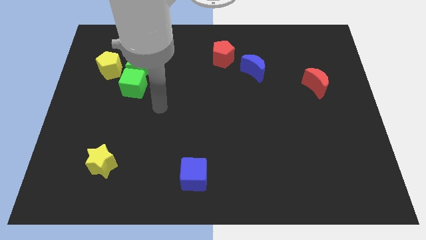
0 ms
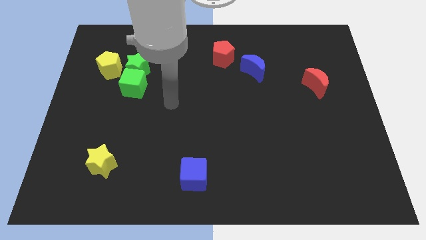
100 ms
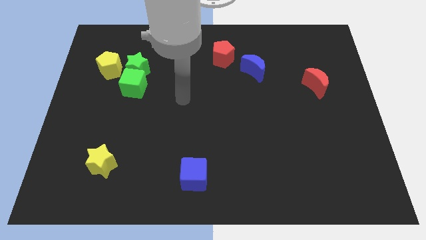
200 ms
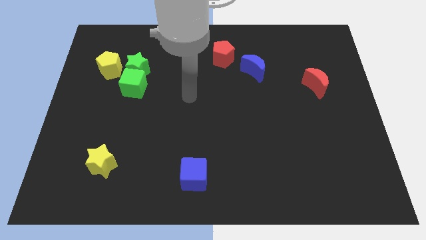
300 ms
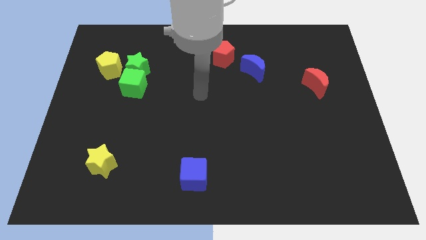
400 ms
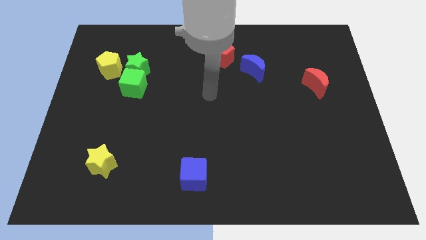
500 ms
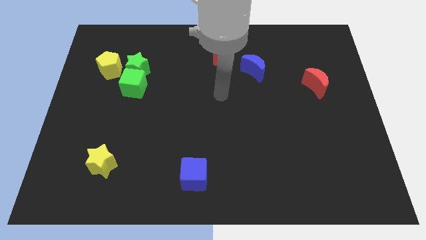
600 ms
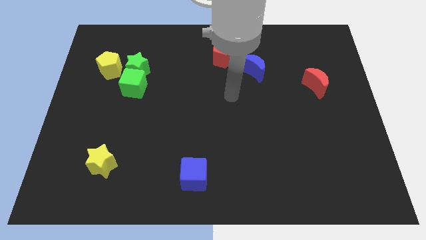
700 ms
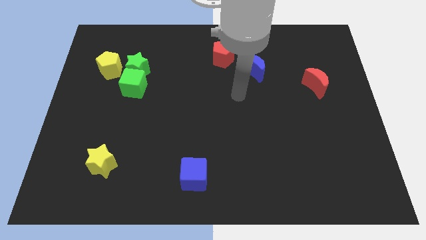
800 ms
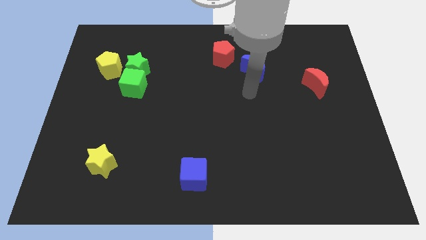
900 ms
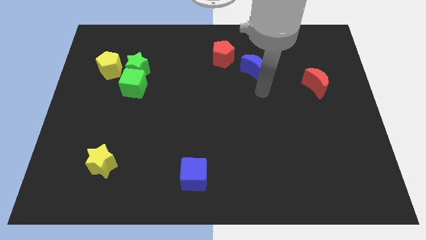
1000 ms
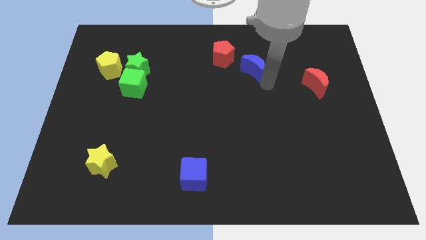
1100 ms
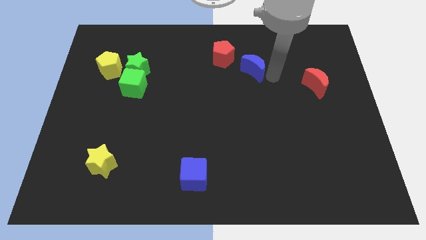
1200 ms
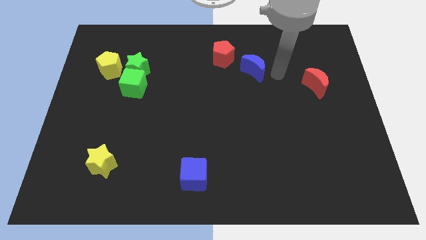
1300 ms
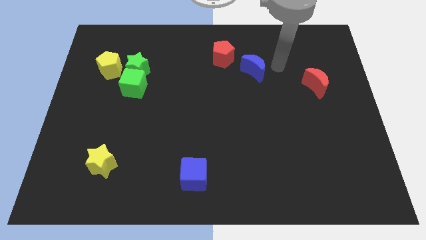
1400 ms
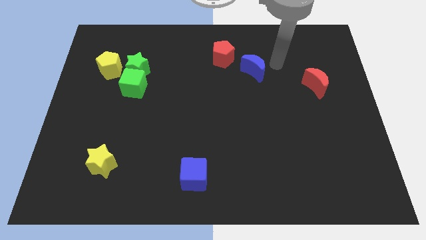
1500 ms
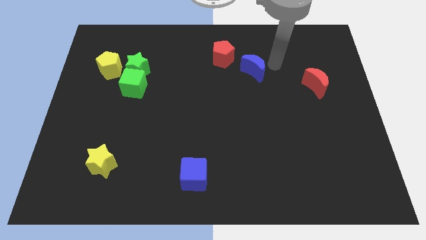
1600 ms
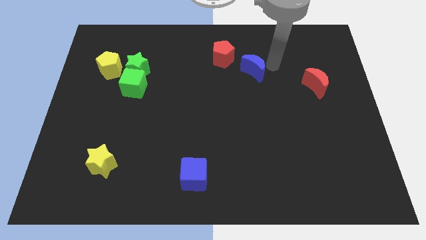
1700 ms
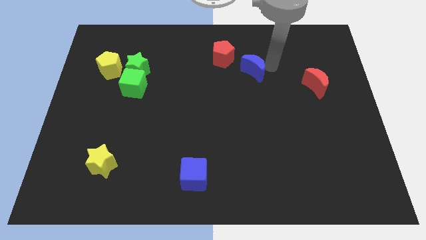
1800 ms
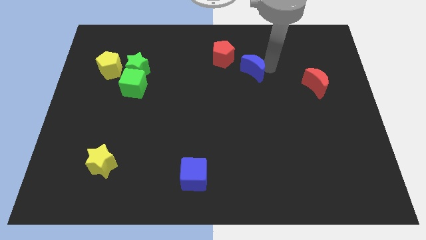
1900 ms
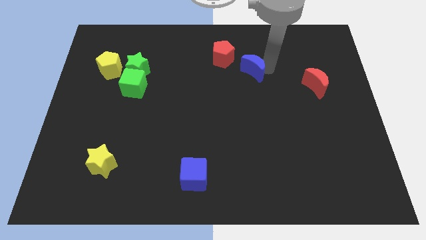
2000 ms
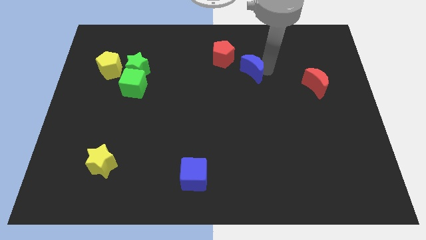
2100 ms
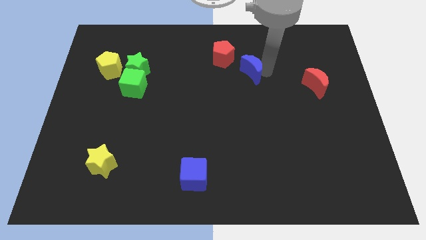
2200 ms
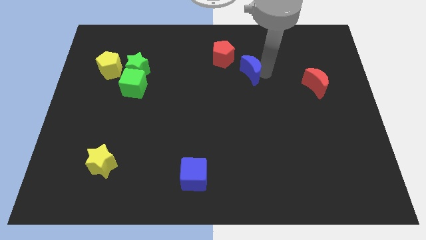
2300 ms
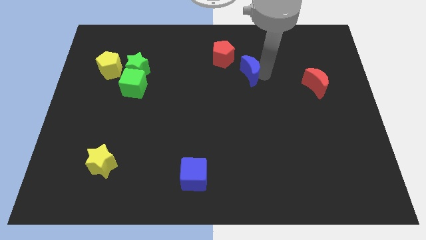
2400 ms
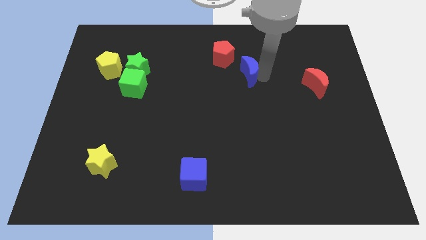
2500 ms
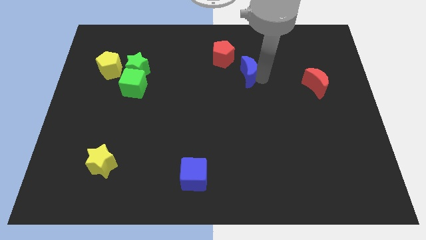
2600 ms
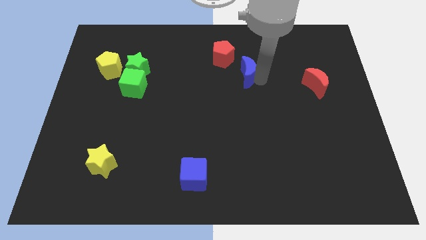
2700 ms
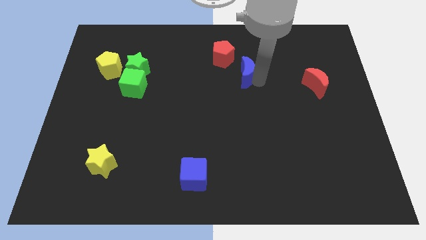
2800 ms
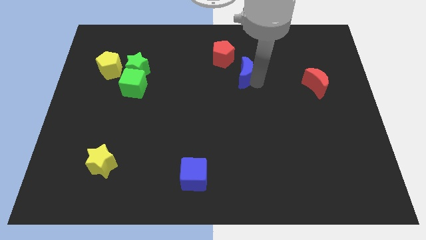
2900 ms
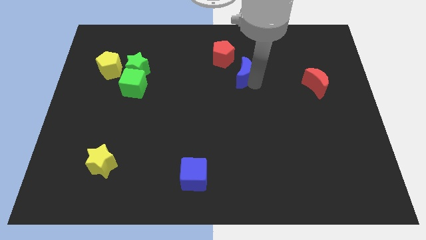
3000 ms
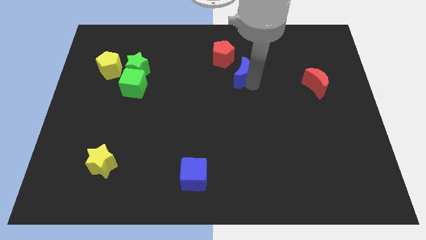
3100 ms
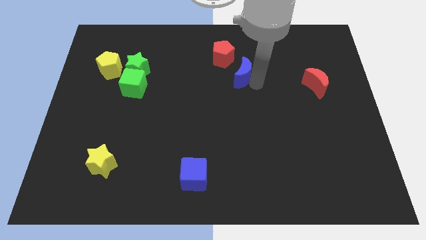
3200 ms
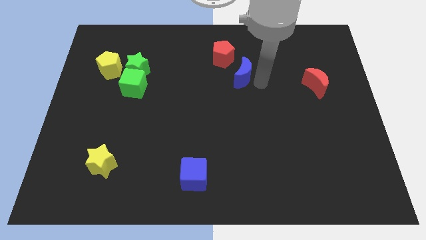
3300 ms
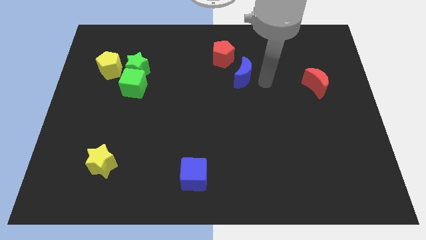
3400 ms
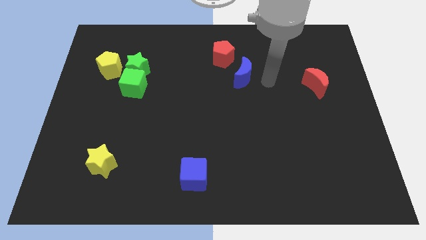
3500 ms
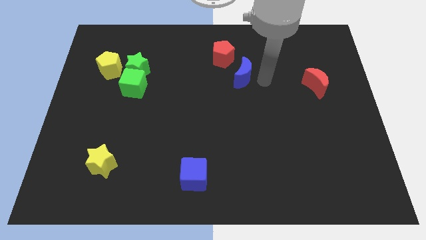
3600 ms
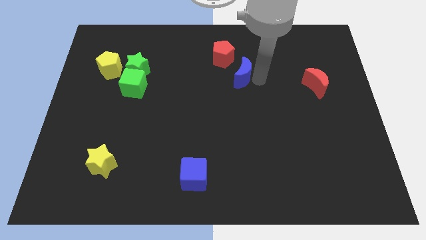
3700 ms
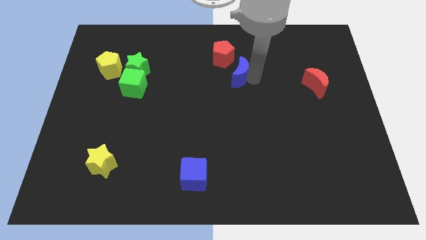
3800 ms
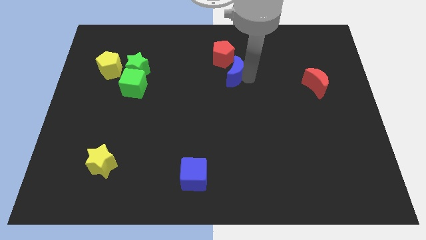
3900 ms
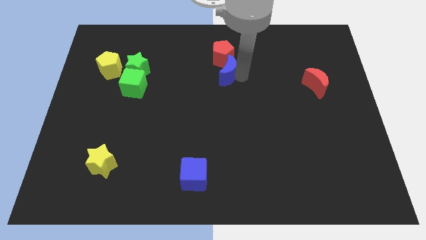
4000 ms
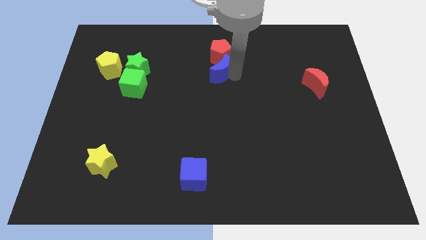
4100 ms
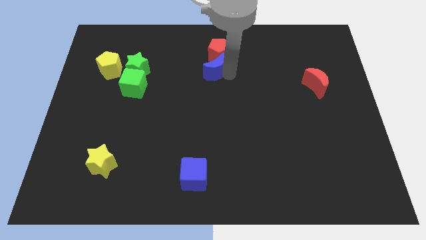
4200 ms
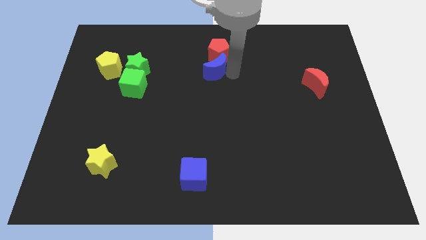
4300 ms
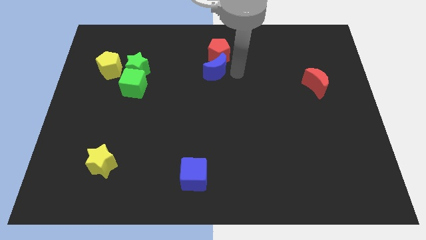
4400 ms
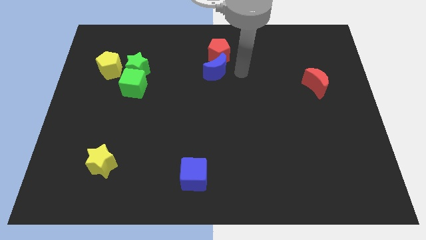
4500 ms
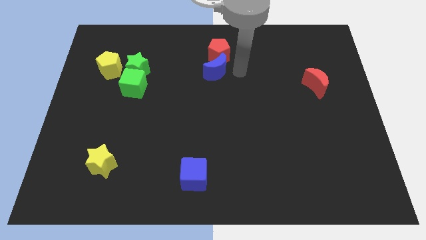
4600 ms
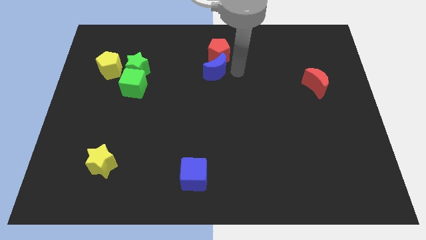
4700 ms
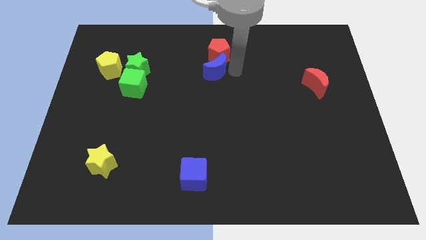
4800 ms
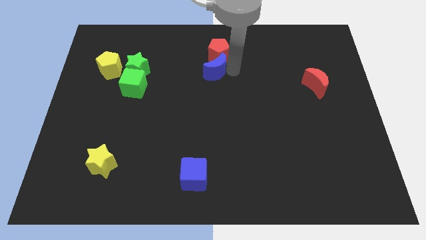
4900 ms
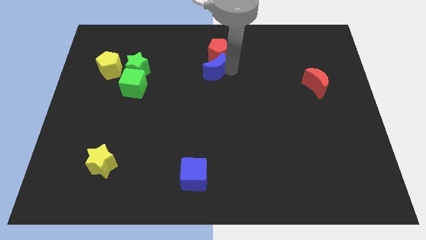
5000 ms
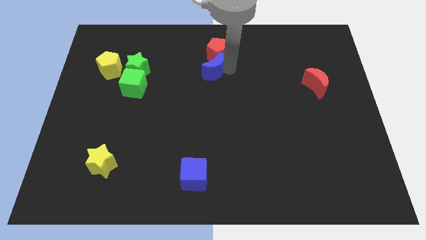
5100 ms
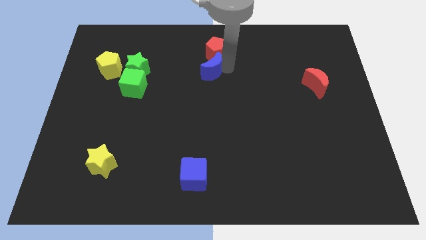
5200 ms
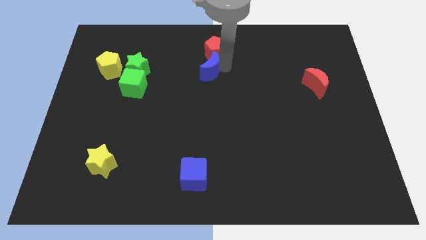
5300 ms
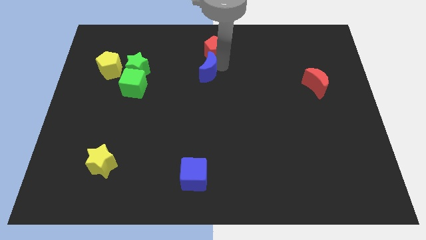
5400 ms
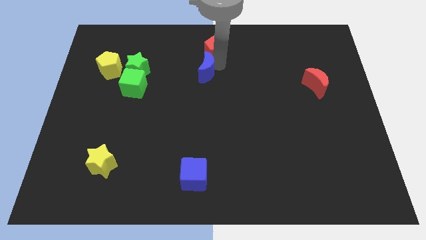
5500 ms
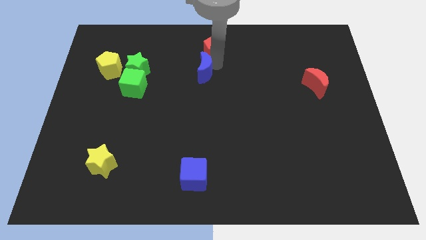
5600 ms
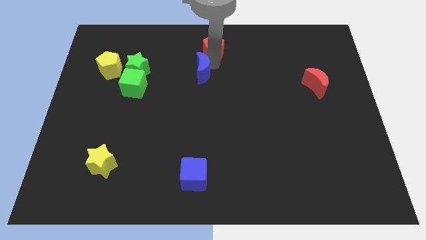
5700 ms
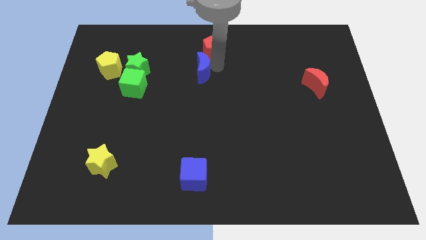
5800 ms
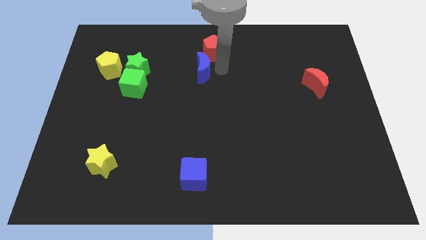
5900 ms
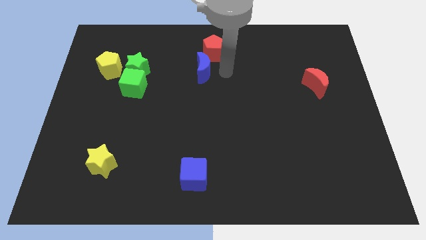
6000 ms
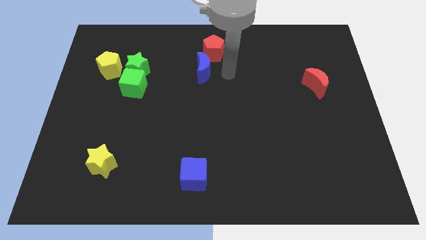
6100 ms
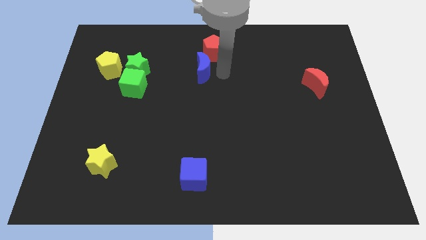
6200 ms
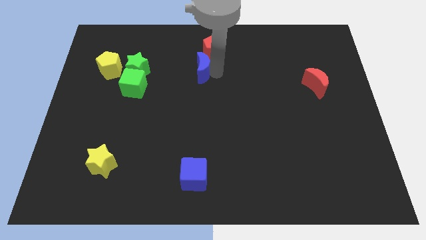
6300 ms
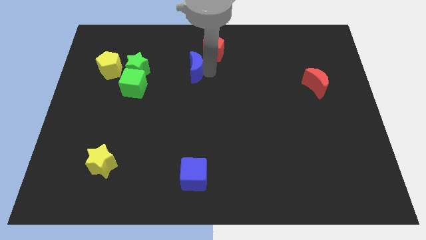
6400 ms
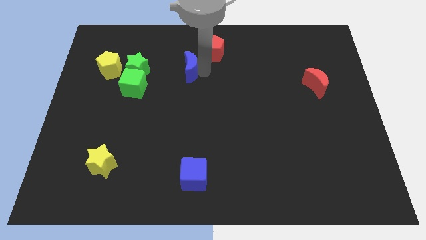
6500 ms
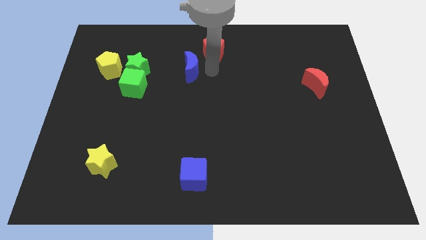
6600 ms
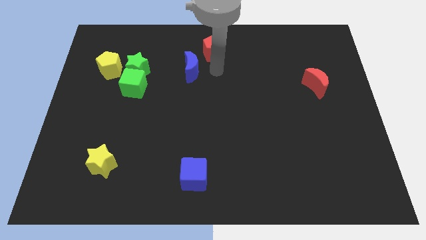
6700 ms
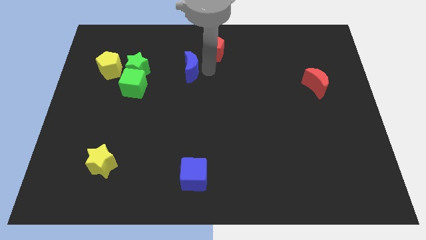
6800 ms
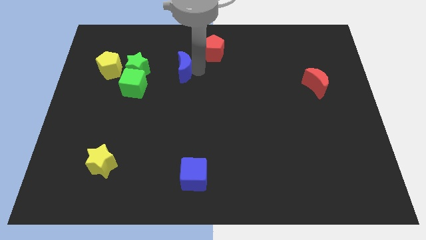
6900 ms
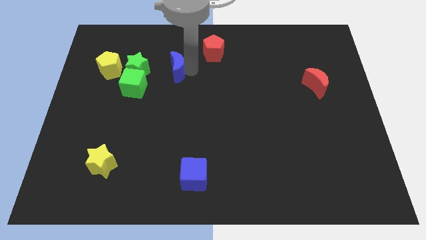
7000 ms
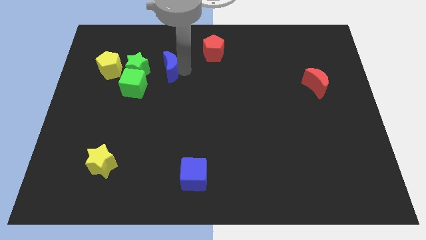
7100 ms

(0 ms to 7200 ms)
push the blue moon just right of the yellow pentagon

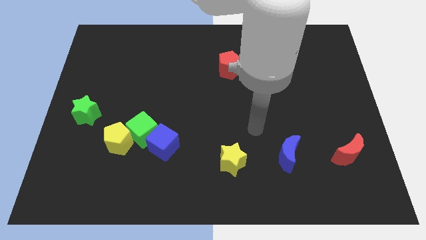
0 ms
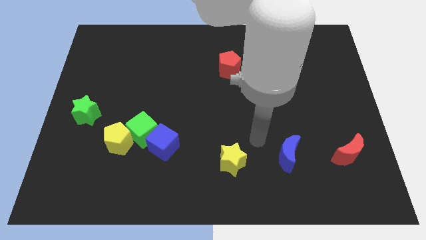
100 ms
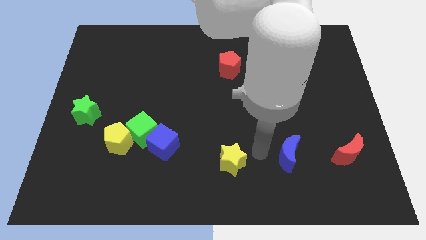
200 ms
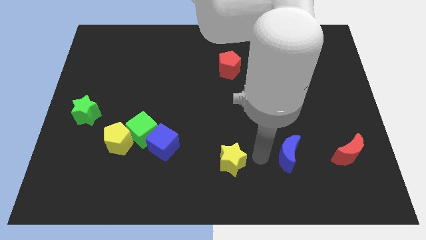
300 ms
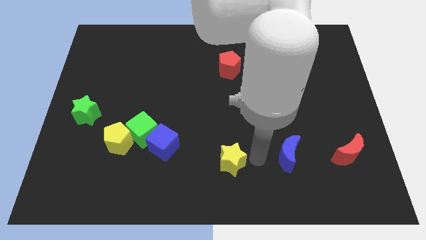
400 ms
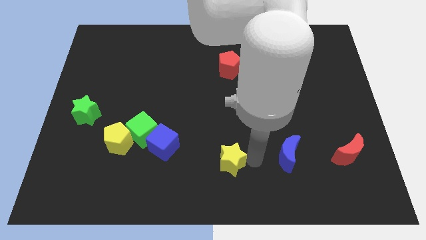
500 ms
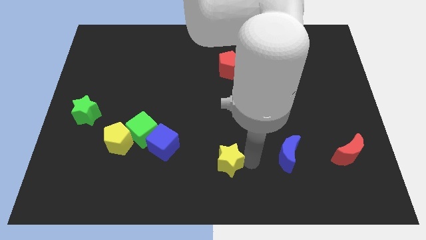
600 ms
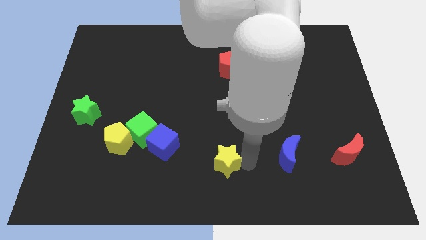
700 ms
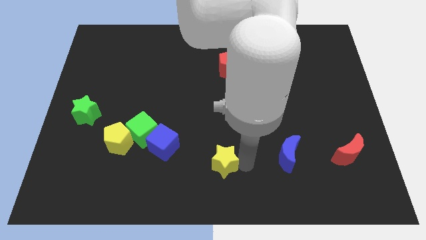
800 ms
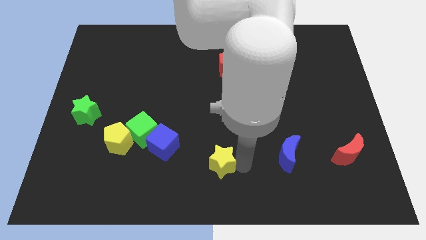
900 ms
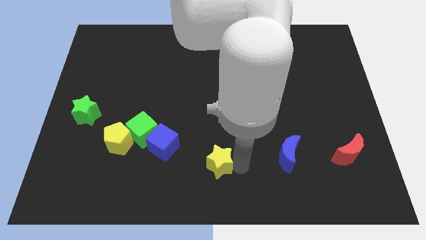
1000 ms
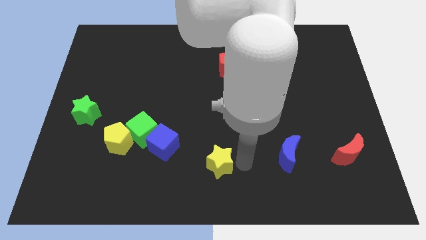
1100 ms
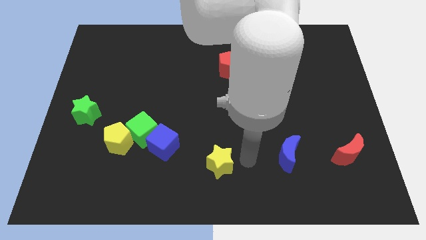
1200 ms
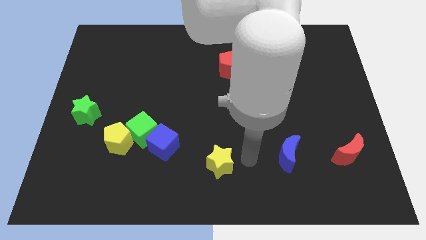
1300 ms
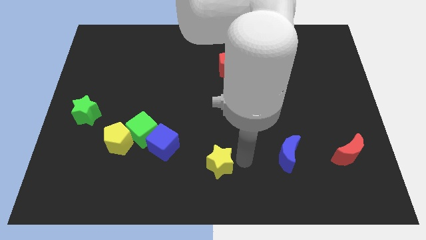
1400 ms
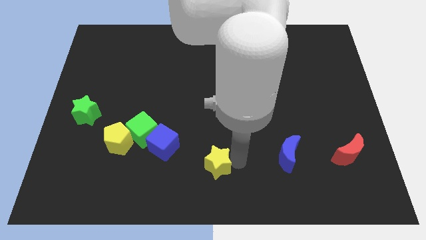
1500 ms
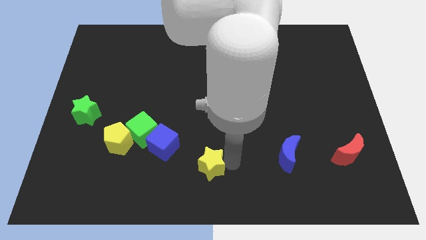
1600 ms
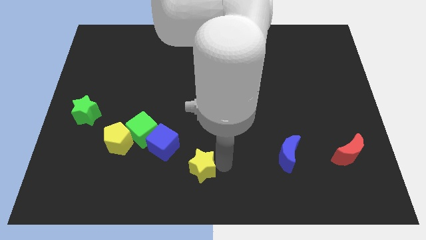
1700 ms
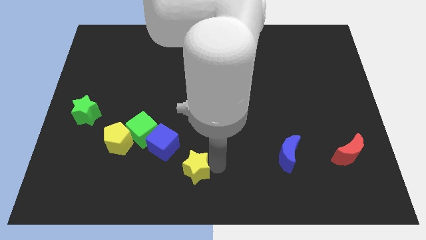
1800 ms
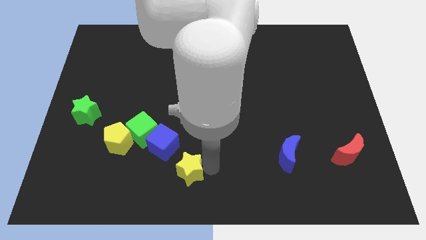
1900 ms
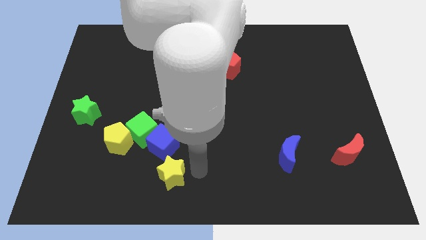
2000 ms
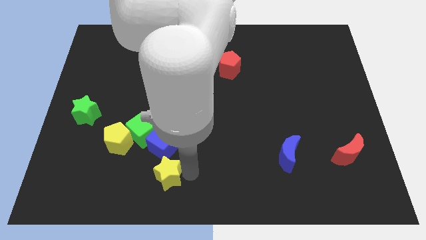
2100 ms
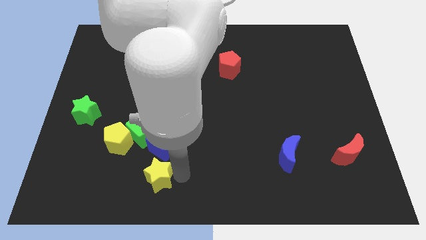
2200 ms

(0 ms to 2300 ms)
push the yellow star to the bottom of the green cube
